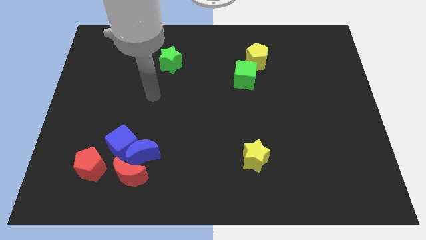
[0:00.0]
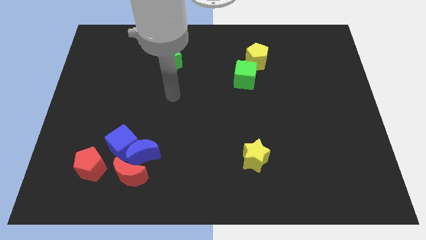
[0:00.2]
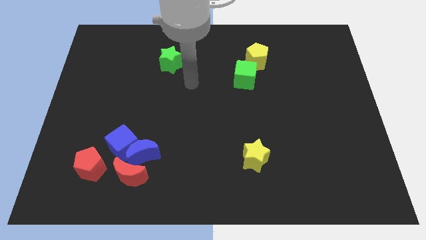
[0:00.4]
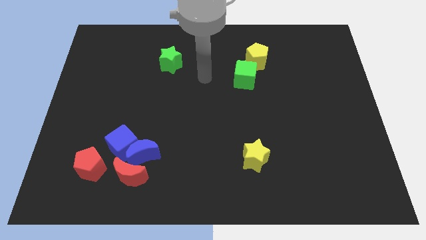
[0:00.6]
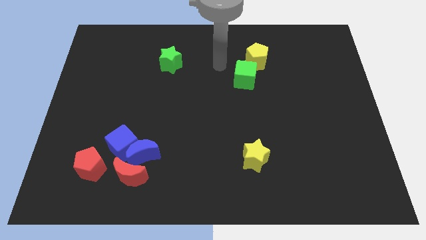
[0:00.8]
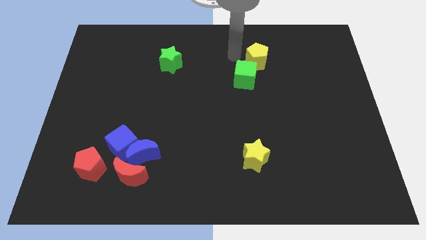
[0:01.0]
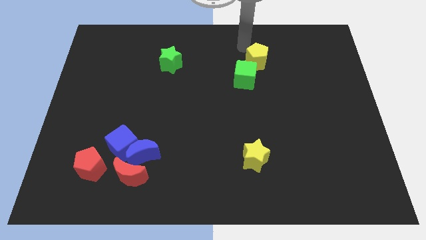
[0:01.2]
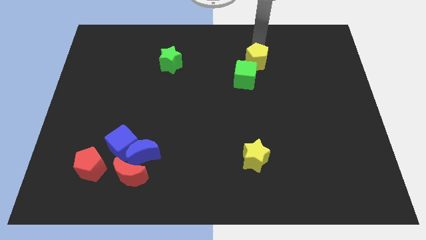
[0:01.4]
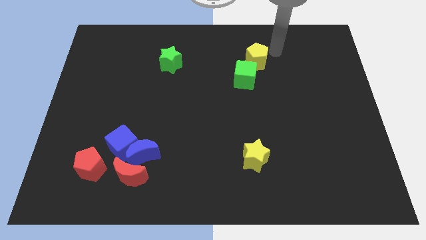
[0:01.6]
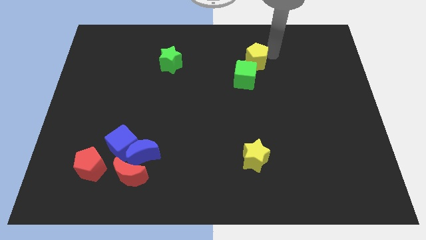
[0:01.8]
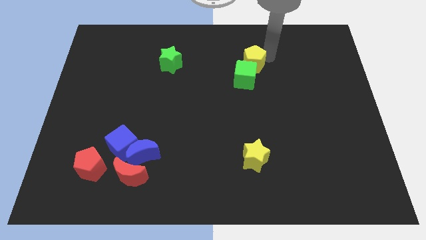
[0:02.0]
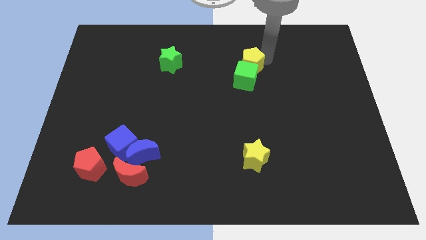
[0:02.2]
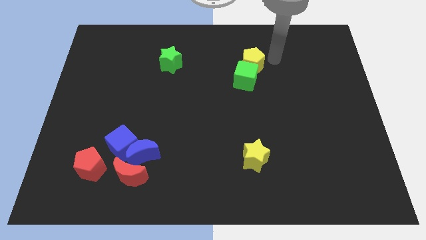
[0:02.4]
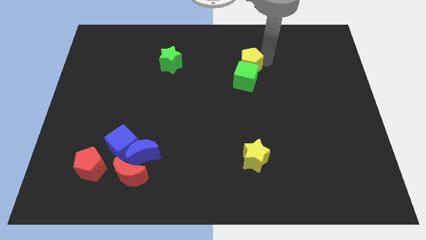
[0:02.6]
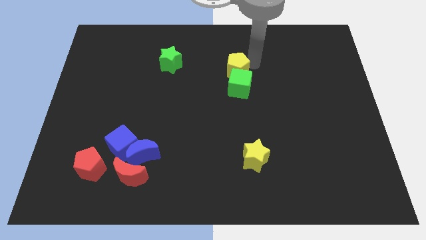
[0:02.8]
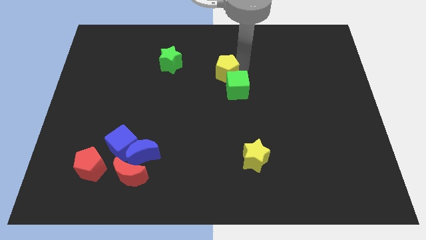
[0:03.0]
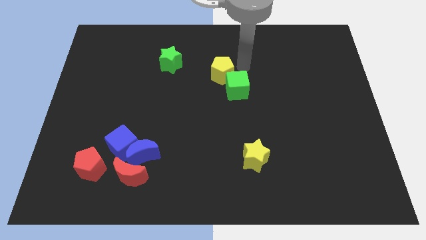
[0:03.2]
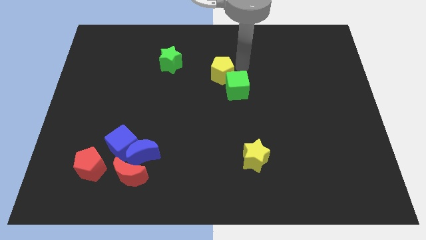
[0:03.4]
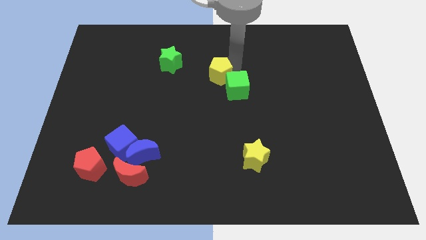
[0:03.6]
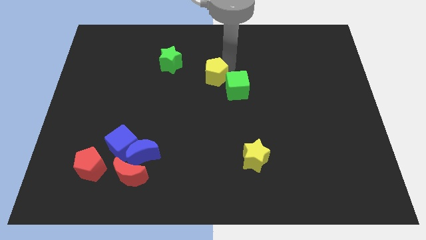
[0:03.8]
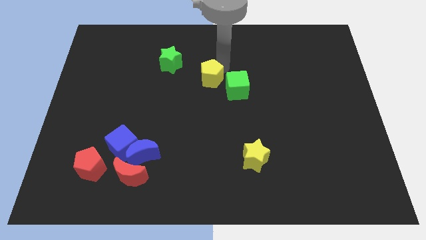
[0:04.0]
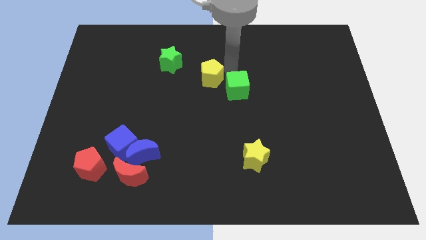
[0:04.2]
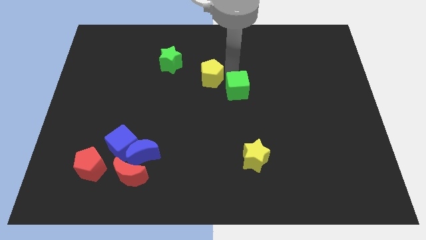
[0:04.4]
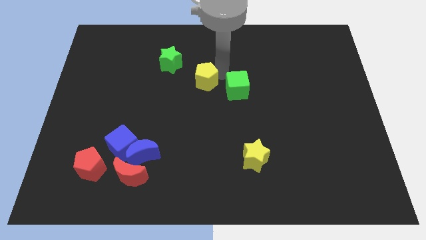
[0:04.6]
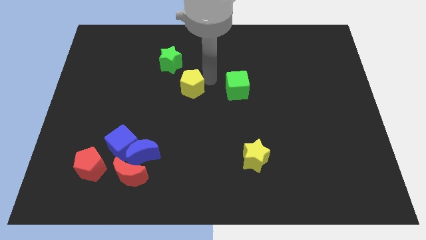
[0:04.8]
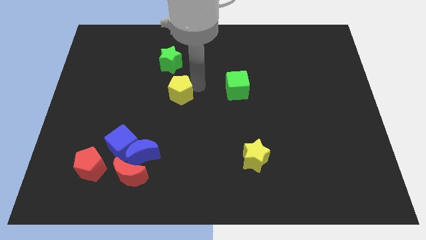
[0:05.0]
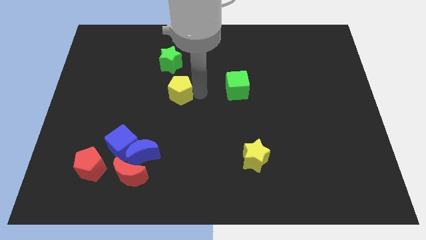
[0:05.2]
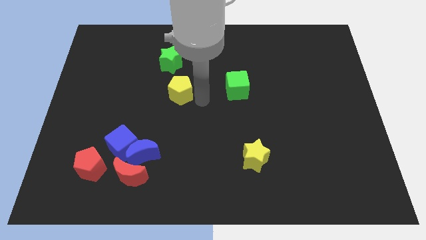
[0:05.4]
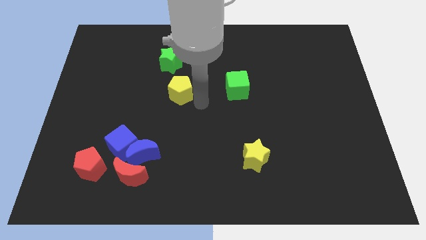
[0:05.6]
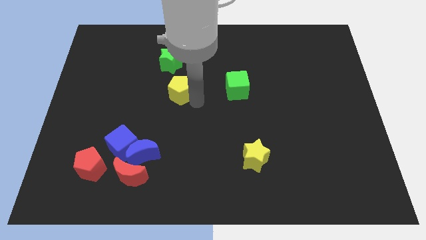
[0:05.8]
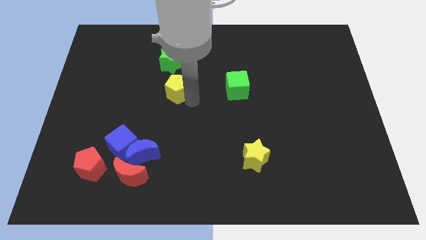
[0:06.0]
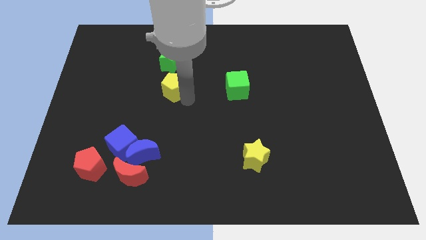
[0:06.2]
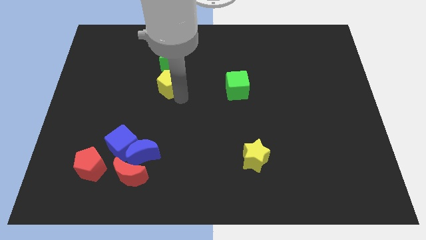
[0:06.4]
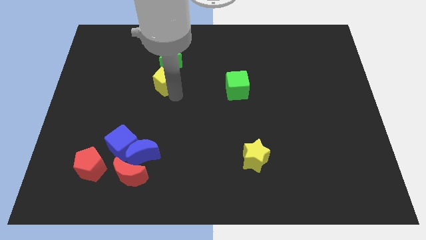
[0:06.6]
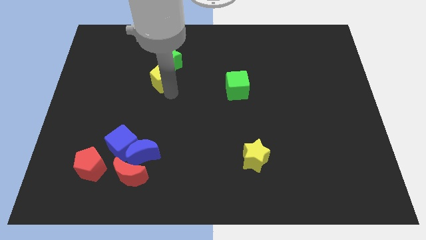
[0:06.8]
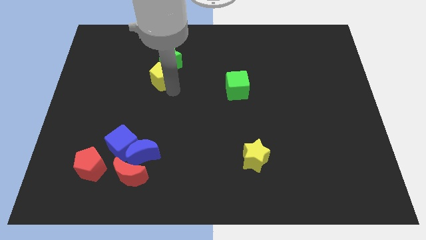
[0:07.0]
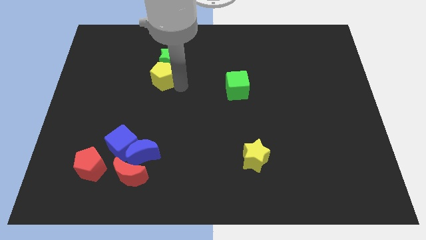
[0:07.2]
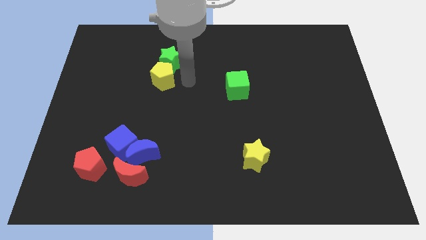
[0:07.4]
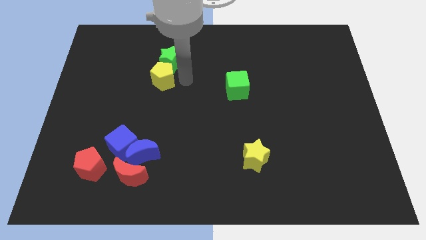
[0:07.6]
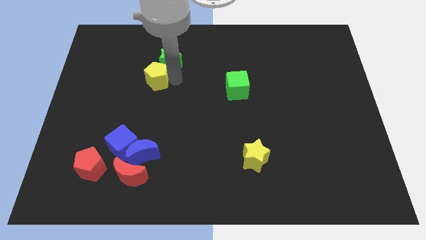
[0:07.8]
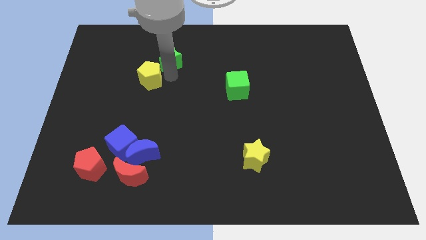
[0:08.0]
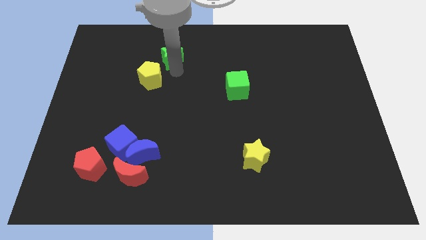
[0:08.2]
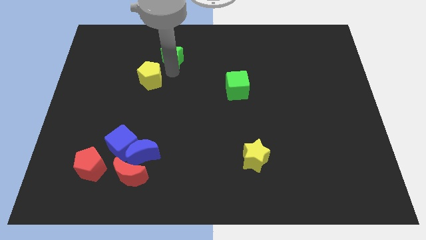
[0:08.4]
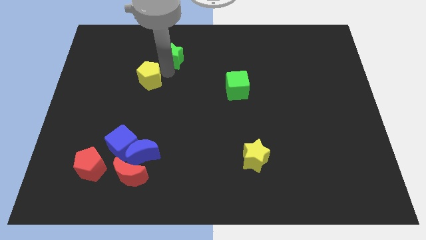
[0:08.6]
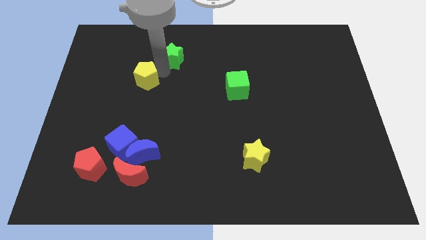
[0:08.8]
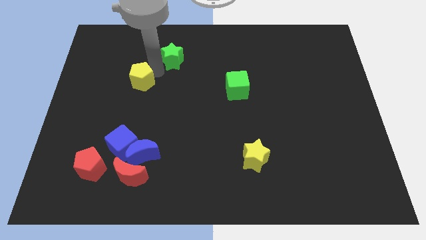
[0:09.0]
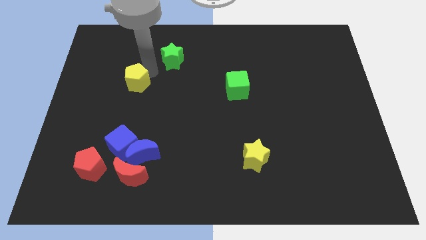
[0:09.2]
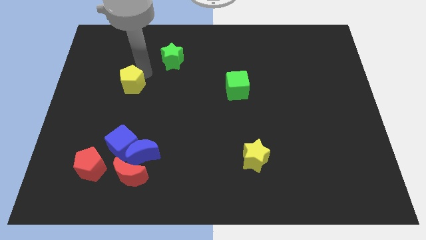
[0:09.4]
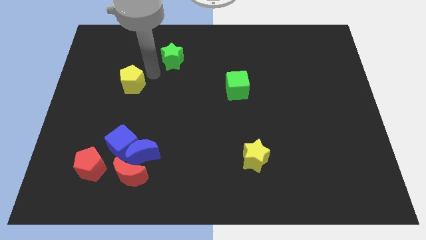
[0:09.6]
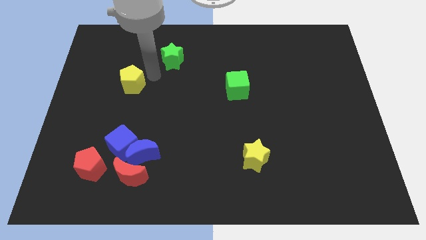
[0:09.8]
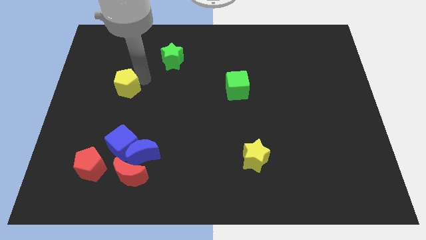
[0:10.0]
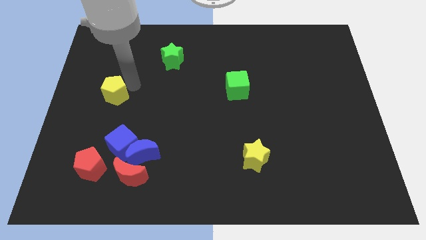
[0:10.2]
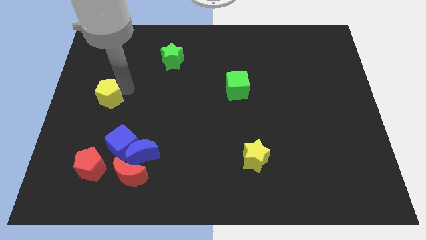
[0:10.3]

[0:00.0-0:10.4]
move the yellow pentagon to the left side

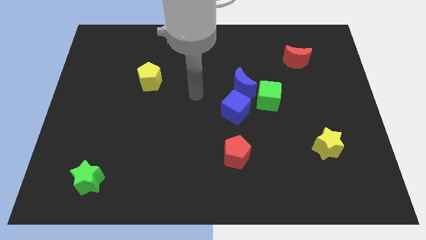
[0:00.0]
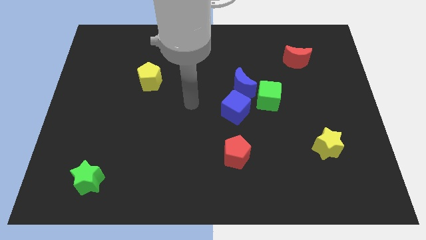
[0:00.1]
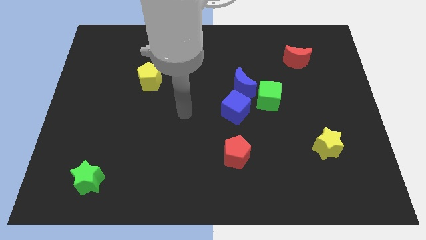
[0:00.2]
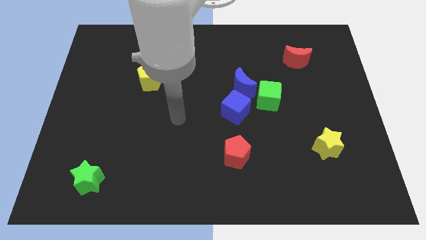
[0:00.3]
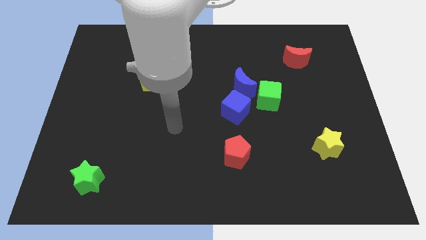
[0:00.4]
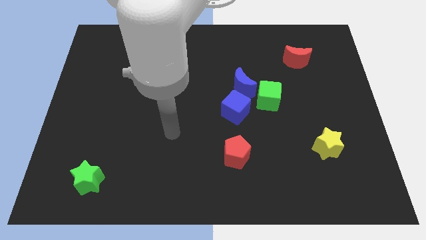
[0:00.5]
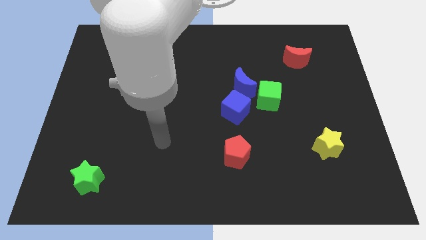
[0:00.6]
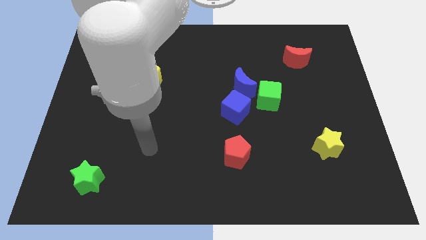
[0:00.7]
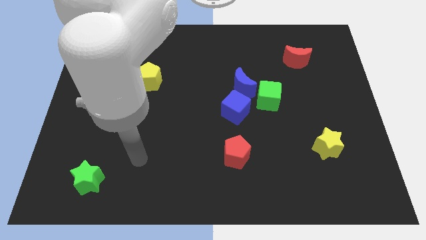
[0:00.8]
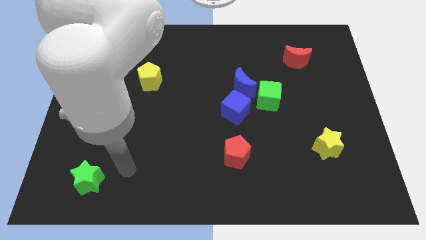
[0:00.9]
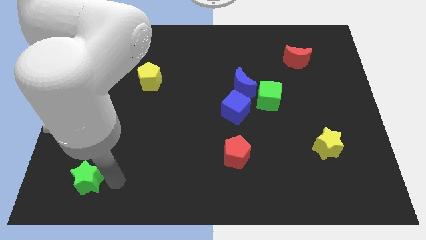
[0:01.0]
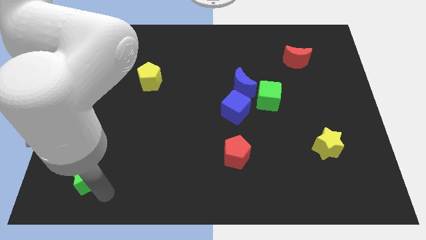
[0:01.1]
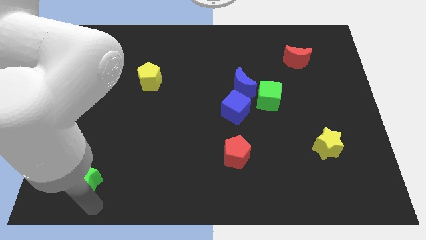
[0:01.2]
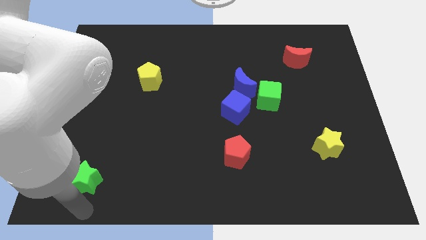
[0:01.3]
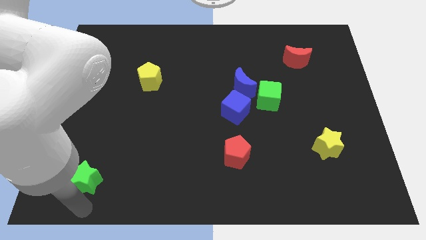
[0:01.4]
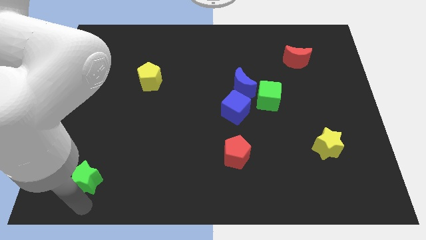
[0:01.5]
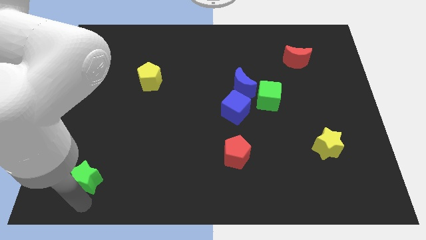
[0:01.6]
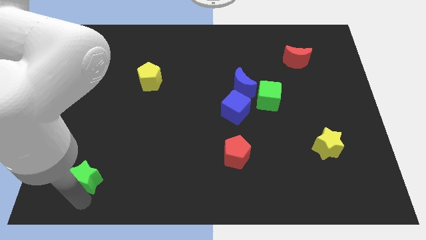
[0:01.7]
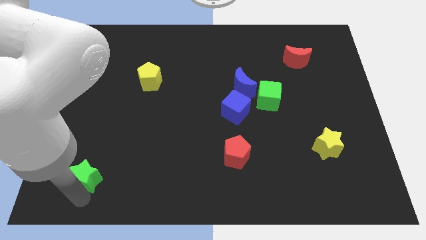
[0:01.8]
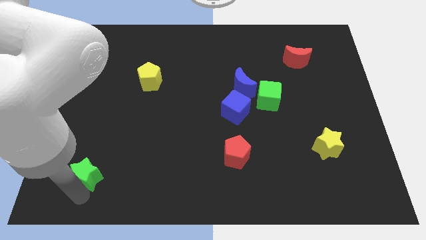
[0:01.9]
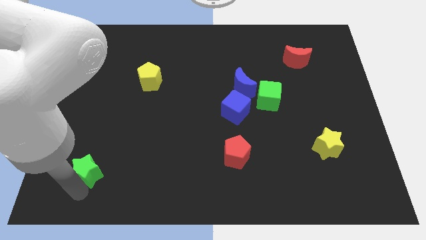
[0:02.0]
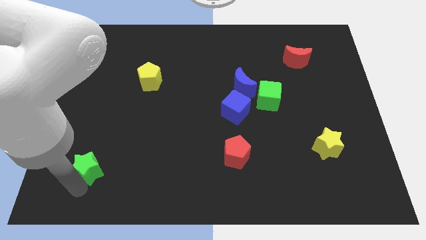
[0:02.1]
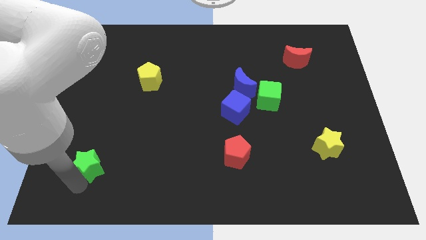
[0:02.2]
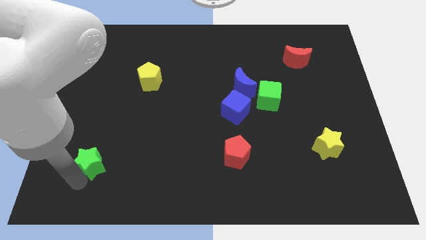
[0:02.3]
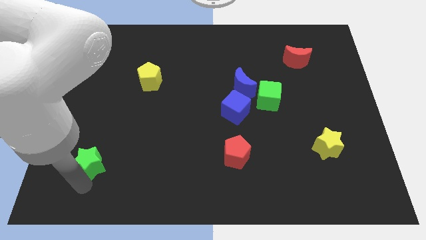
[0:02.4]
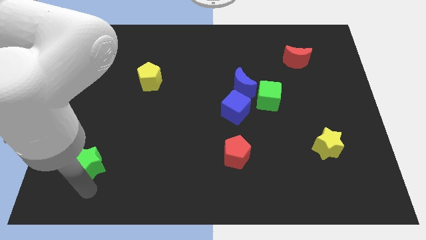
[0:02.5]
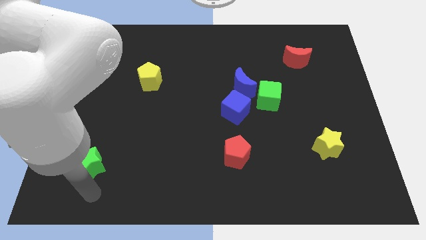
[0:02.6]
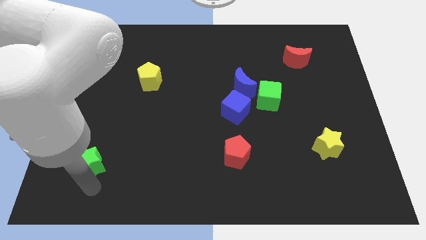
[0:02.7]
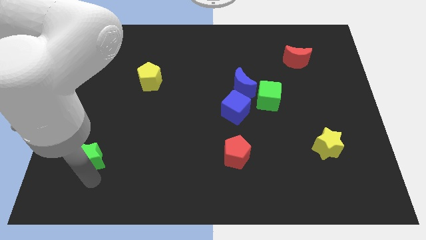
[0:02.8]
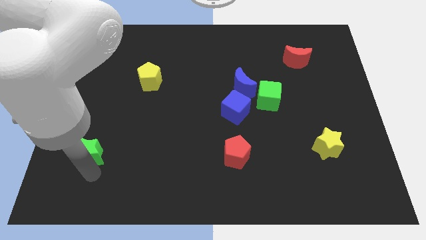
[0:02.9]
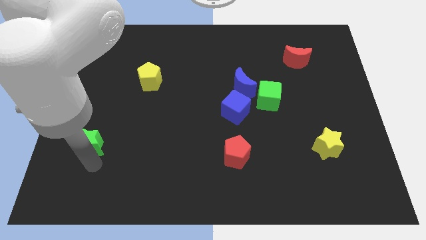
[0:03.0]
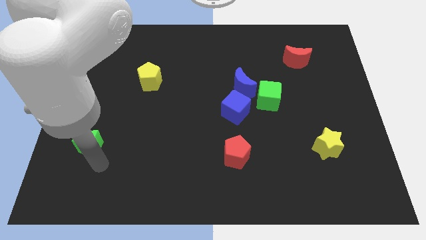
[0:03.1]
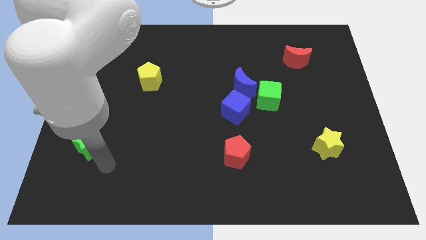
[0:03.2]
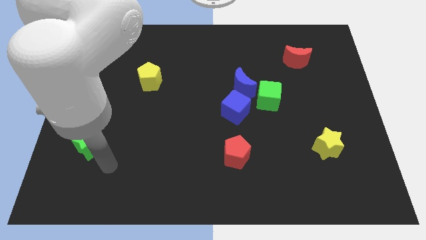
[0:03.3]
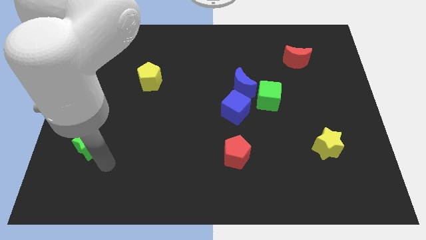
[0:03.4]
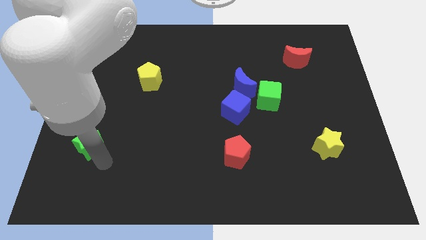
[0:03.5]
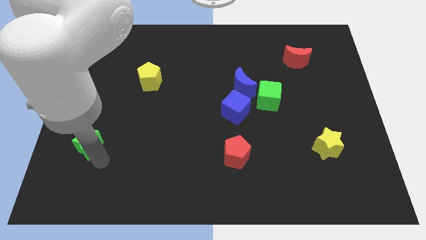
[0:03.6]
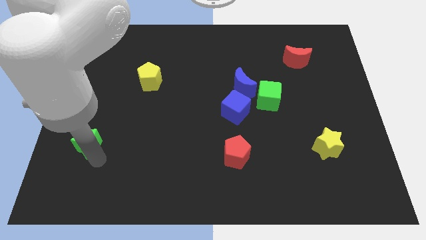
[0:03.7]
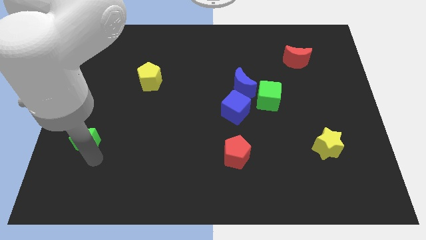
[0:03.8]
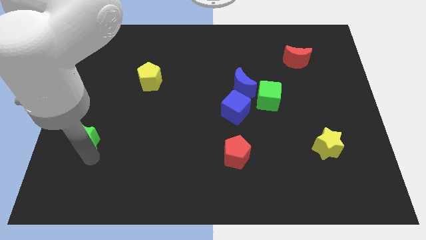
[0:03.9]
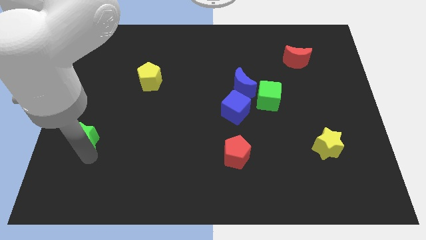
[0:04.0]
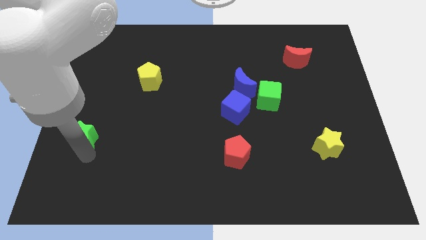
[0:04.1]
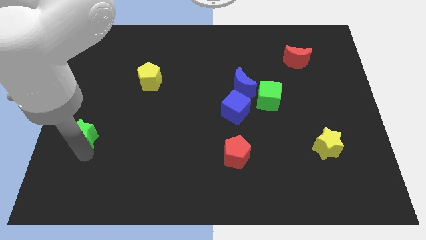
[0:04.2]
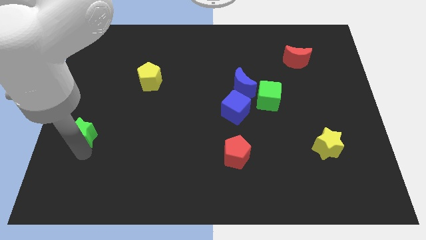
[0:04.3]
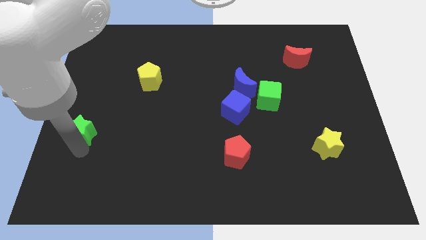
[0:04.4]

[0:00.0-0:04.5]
move the green star to the left side
